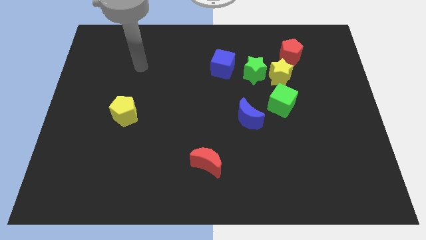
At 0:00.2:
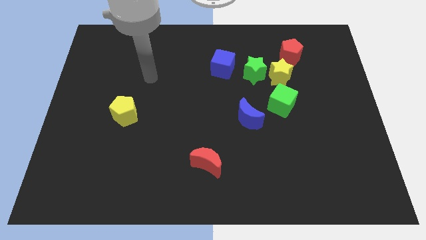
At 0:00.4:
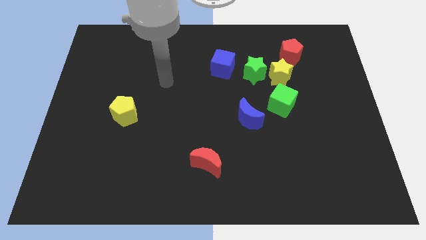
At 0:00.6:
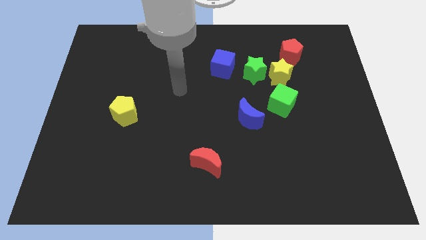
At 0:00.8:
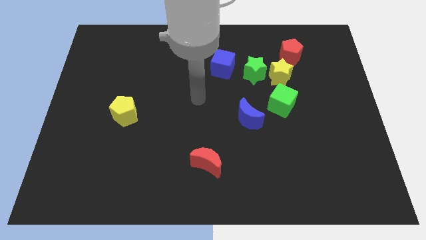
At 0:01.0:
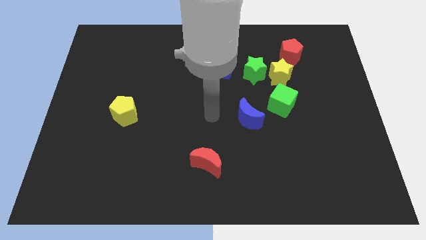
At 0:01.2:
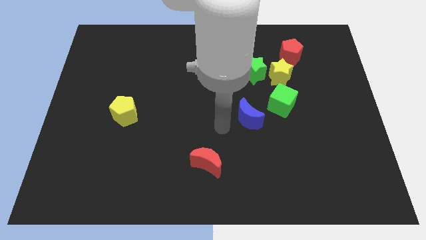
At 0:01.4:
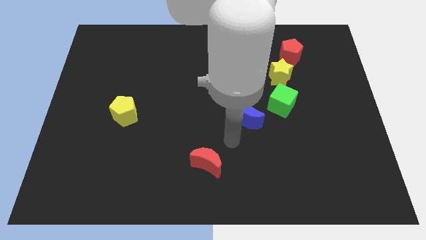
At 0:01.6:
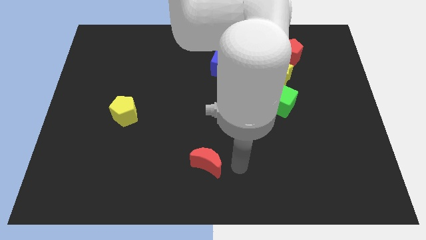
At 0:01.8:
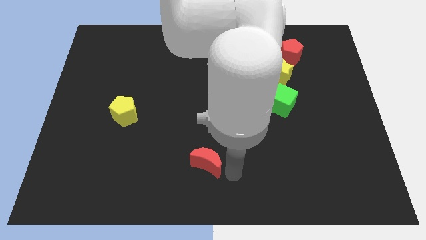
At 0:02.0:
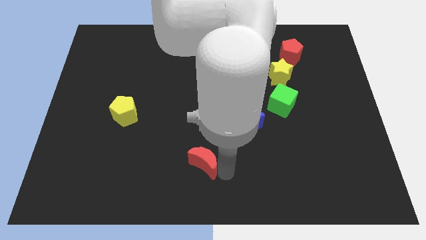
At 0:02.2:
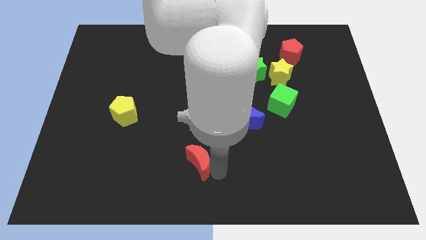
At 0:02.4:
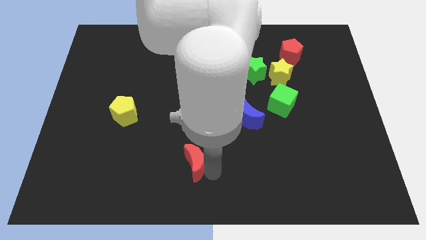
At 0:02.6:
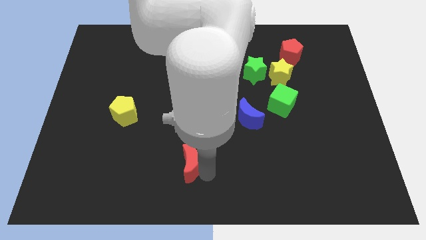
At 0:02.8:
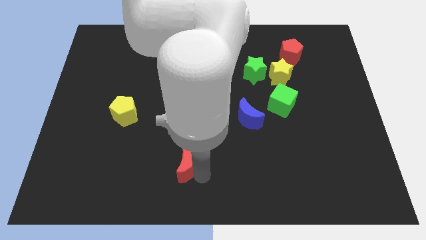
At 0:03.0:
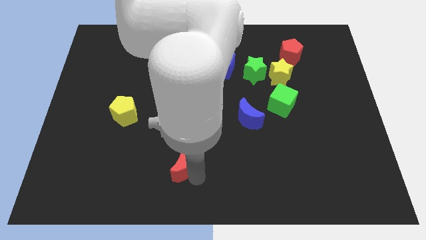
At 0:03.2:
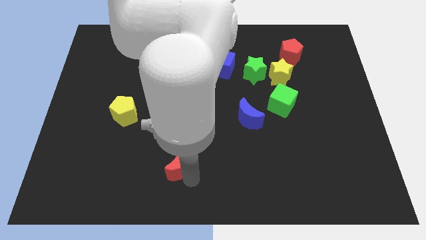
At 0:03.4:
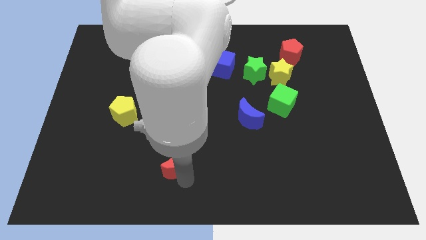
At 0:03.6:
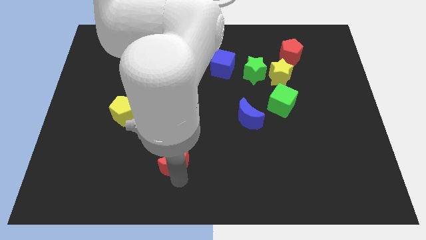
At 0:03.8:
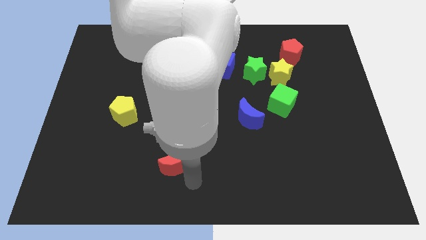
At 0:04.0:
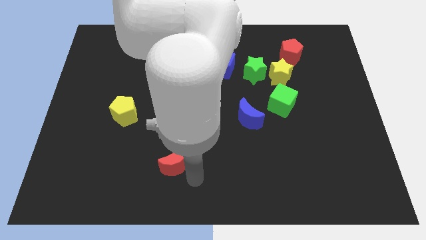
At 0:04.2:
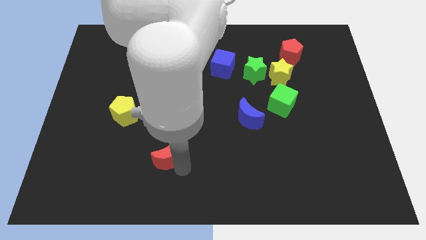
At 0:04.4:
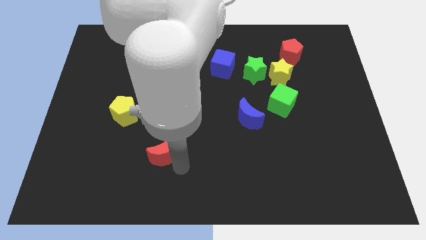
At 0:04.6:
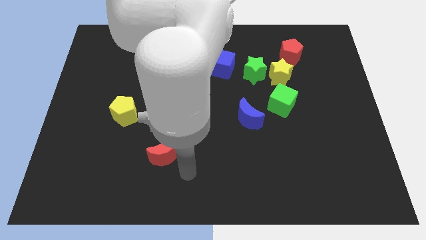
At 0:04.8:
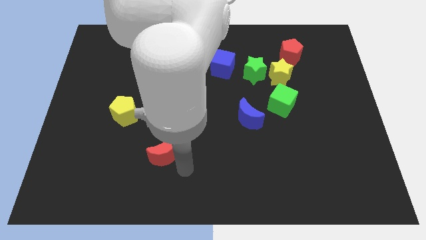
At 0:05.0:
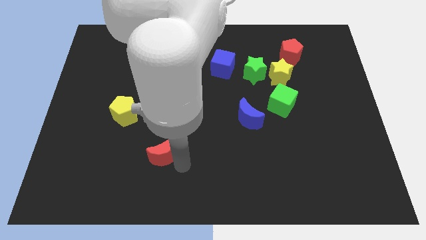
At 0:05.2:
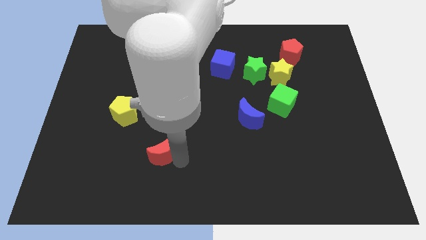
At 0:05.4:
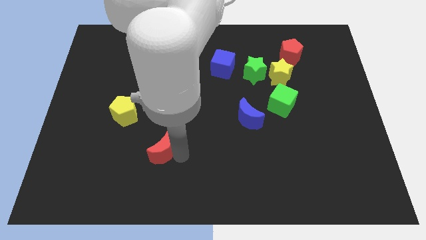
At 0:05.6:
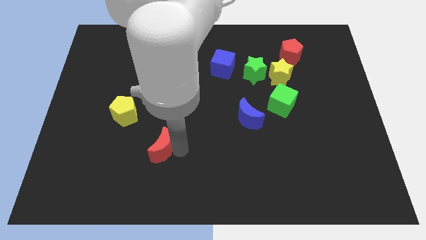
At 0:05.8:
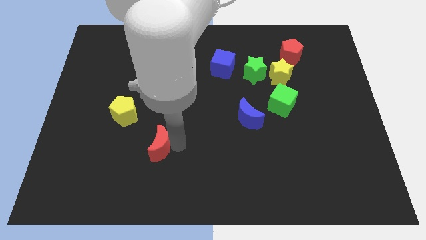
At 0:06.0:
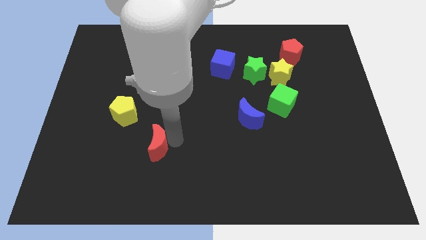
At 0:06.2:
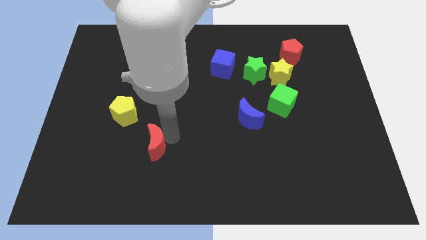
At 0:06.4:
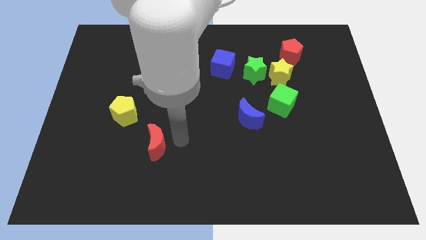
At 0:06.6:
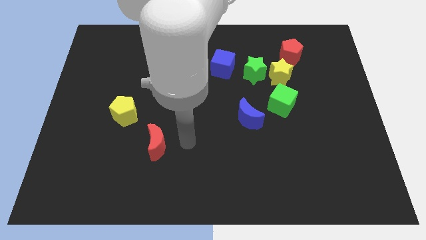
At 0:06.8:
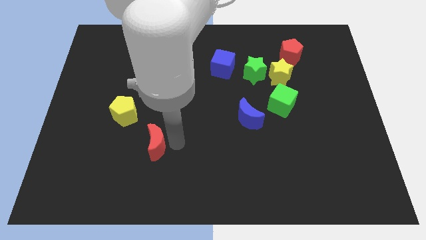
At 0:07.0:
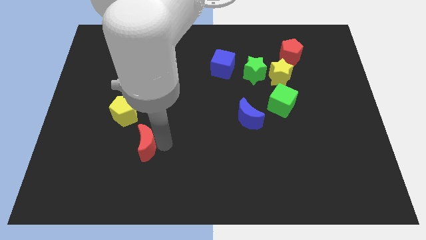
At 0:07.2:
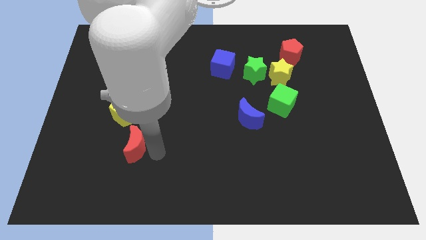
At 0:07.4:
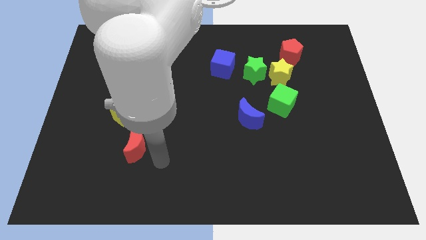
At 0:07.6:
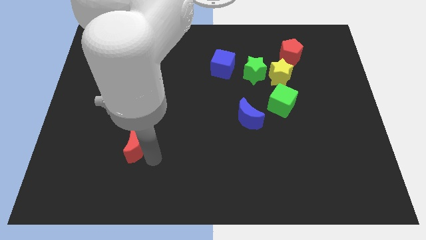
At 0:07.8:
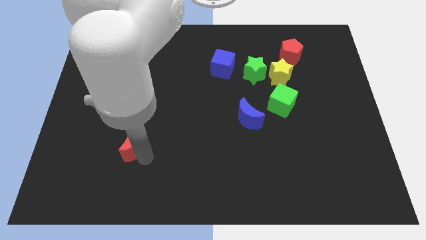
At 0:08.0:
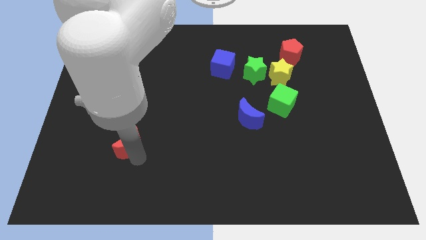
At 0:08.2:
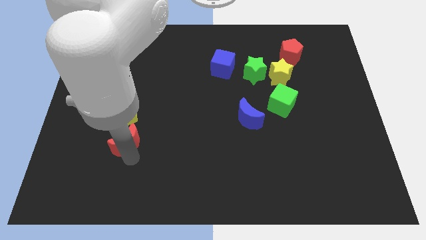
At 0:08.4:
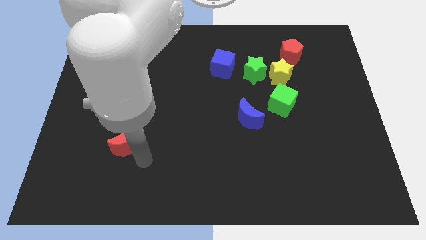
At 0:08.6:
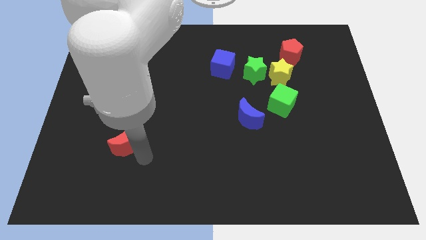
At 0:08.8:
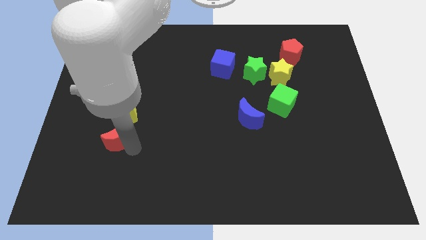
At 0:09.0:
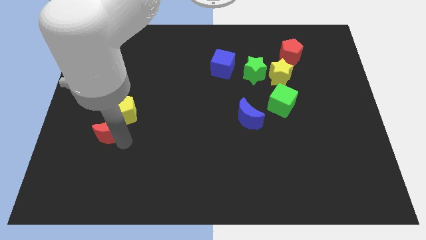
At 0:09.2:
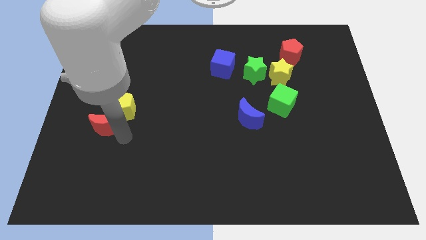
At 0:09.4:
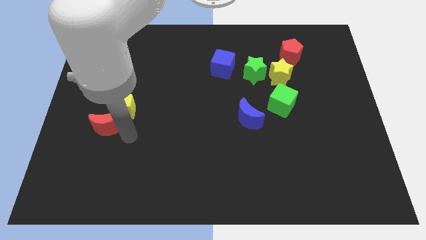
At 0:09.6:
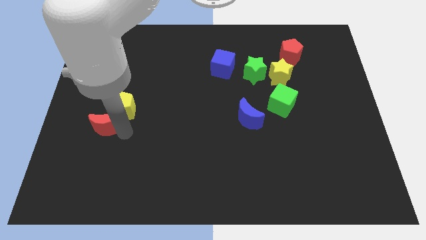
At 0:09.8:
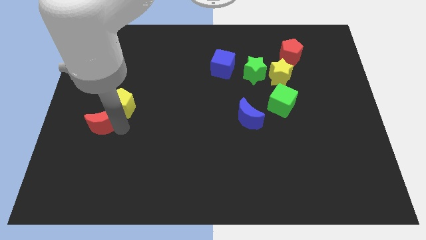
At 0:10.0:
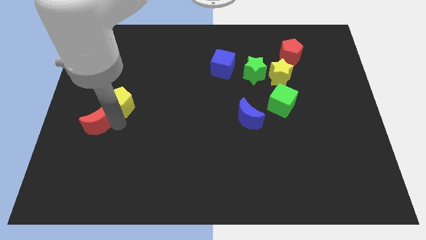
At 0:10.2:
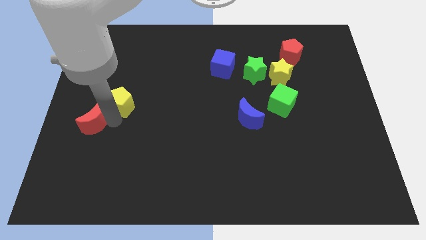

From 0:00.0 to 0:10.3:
put the red moon to the center left

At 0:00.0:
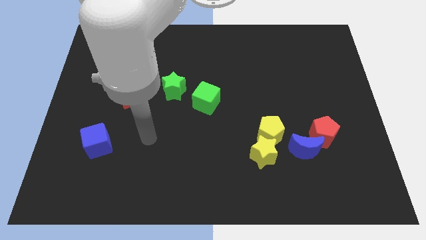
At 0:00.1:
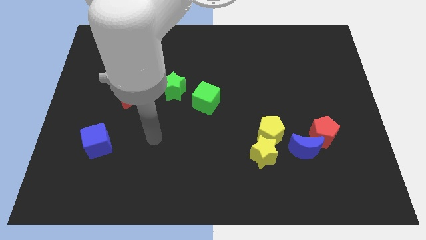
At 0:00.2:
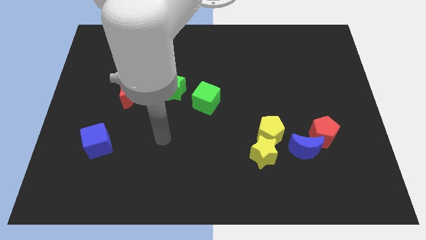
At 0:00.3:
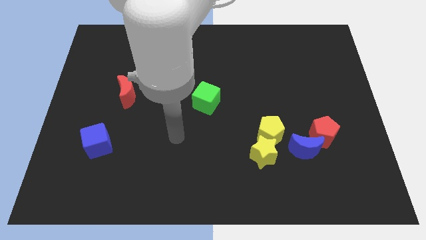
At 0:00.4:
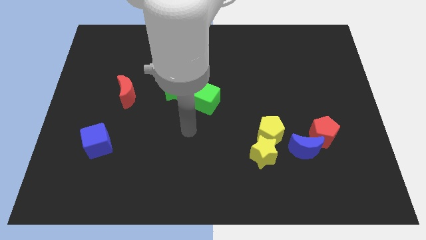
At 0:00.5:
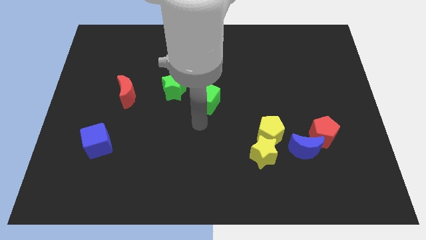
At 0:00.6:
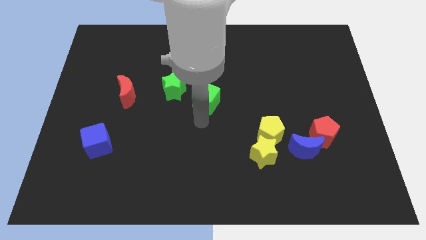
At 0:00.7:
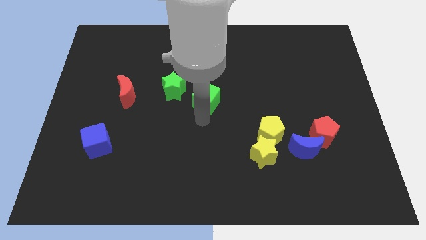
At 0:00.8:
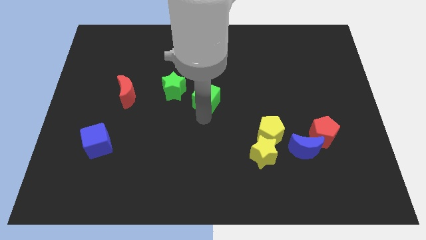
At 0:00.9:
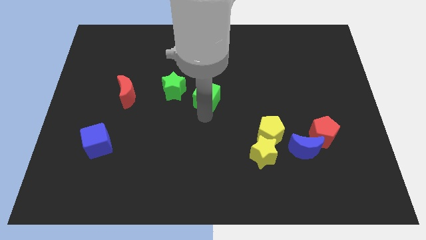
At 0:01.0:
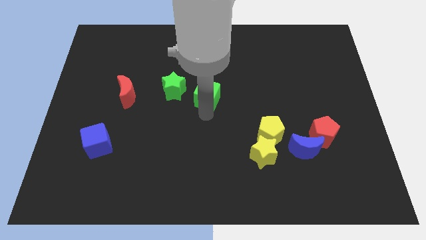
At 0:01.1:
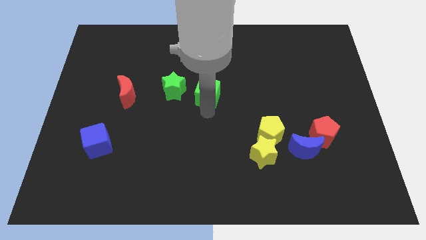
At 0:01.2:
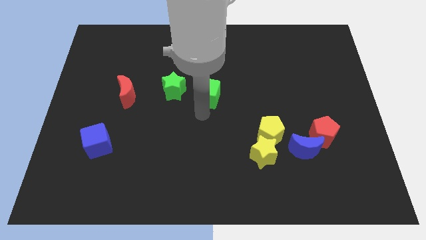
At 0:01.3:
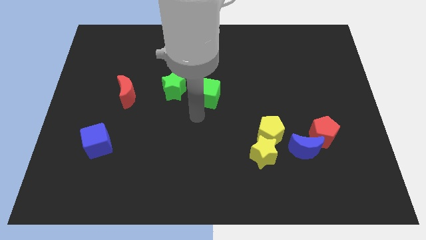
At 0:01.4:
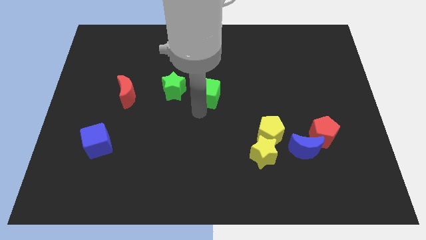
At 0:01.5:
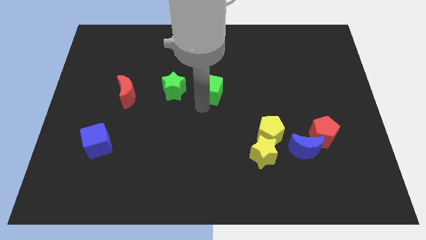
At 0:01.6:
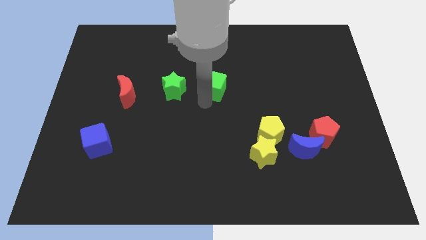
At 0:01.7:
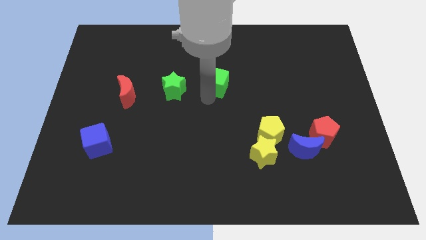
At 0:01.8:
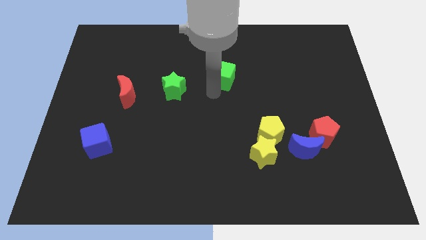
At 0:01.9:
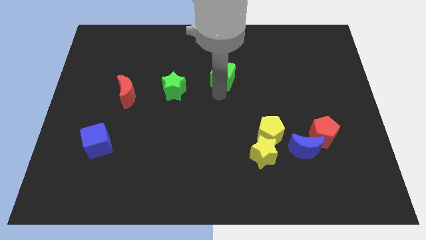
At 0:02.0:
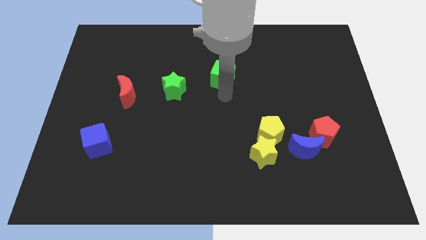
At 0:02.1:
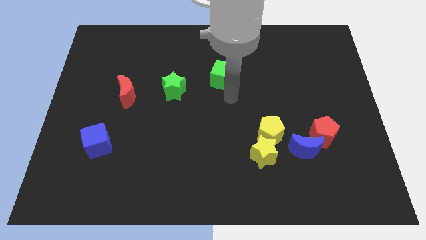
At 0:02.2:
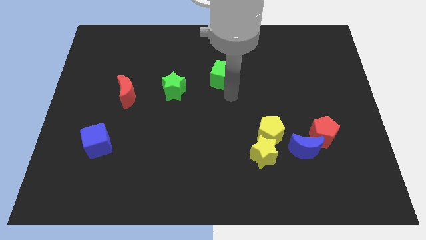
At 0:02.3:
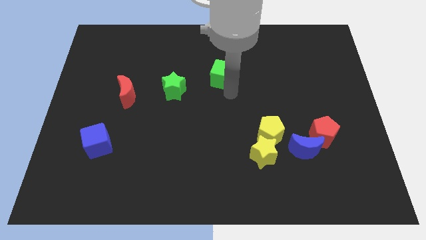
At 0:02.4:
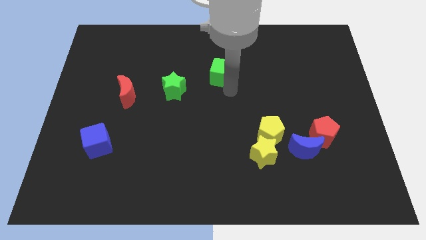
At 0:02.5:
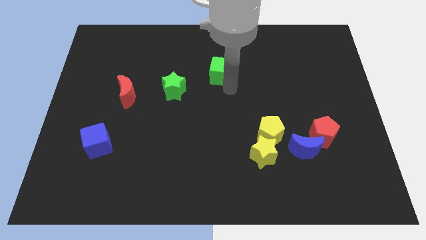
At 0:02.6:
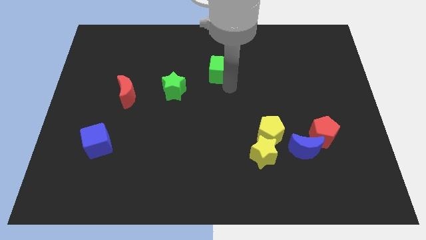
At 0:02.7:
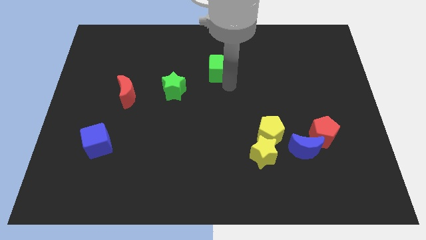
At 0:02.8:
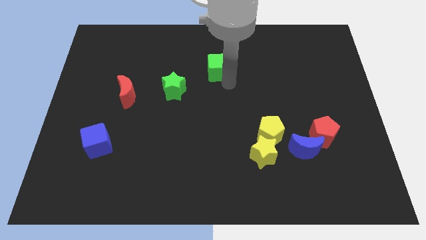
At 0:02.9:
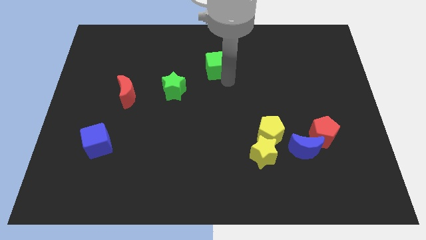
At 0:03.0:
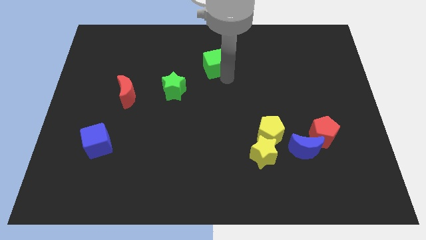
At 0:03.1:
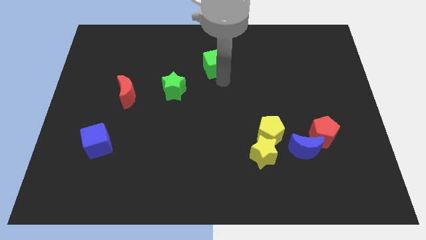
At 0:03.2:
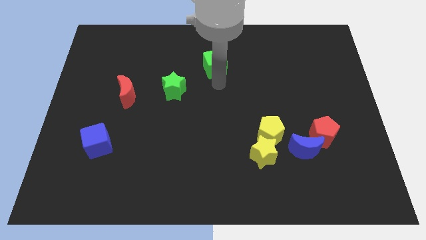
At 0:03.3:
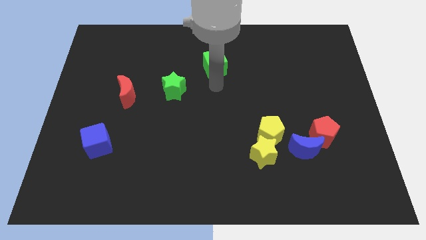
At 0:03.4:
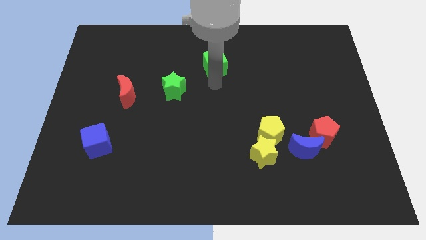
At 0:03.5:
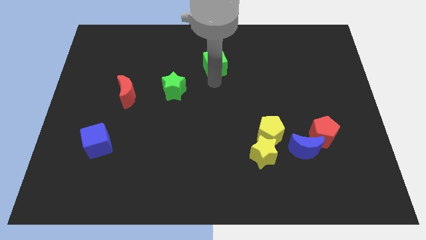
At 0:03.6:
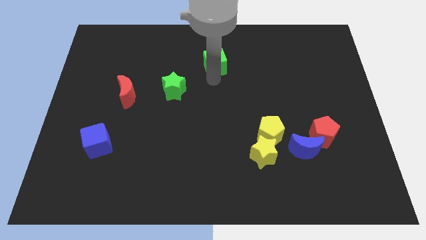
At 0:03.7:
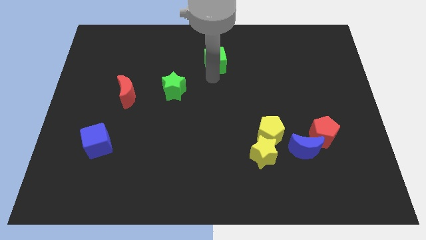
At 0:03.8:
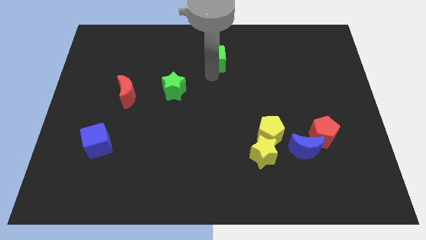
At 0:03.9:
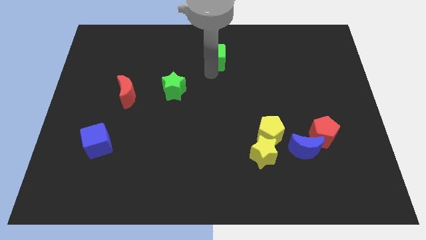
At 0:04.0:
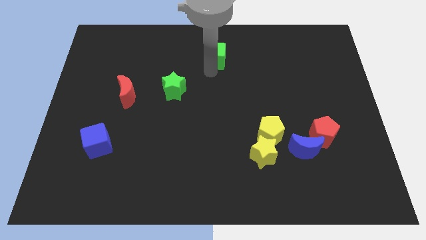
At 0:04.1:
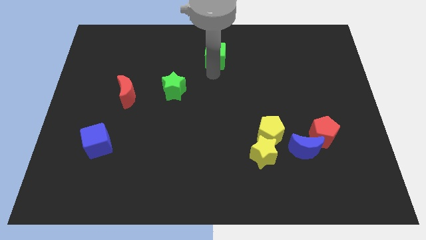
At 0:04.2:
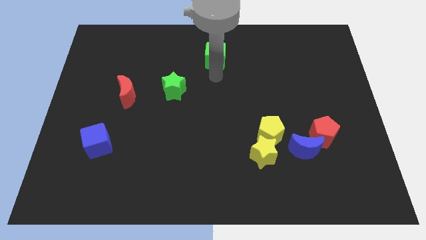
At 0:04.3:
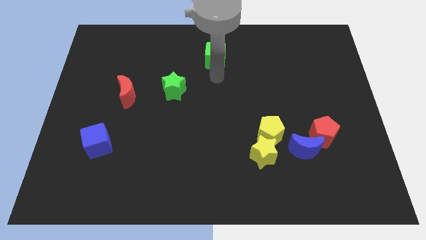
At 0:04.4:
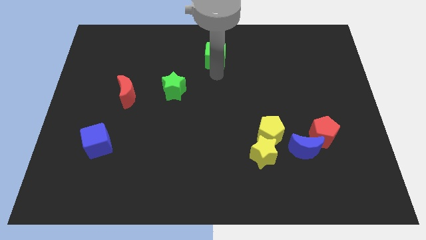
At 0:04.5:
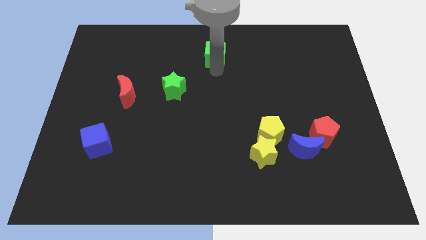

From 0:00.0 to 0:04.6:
put the green cube to the top
